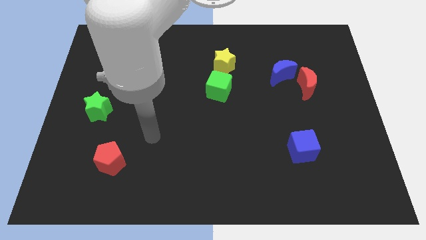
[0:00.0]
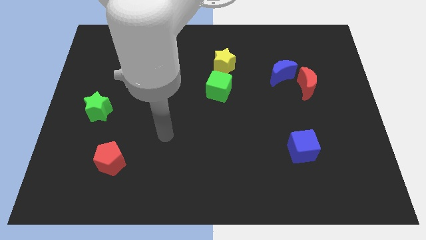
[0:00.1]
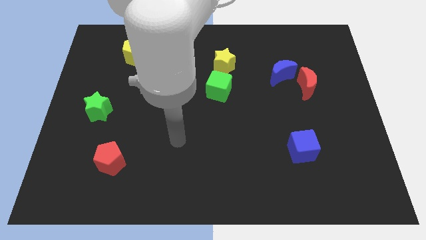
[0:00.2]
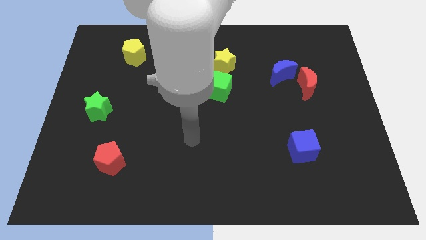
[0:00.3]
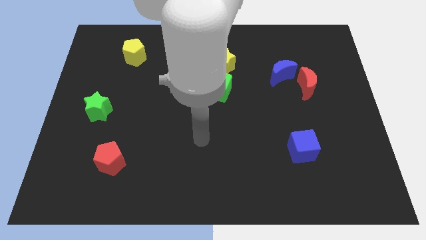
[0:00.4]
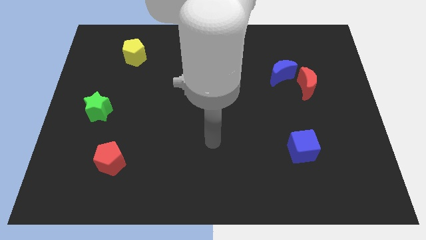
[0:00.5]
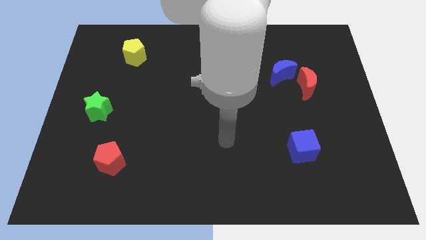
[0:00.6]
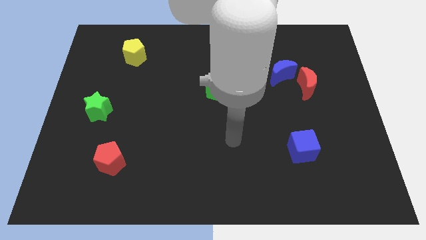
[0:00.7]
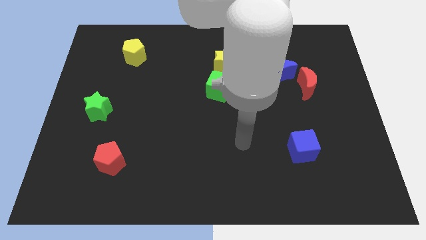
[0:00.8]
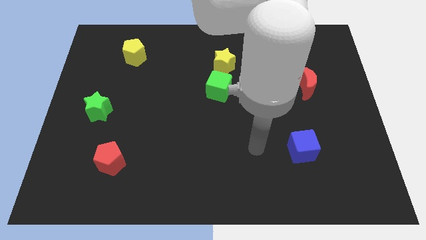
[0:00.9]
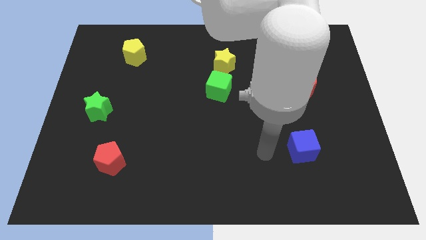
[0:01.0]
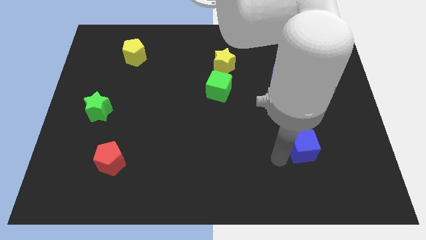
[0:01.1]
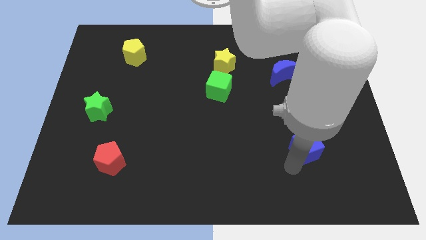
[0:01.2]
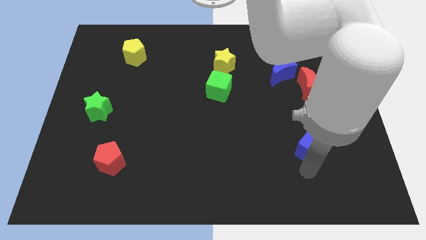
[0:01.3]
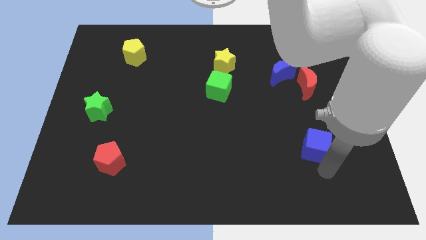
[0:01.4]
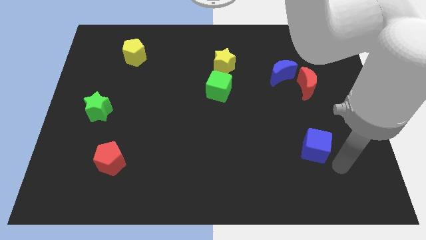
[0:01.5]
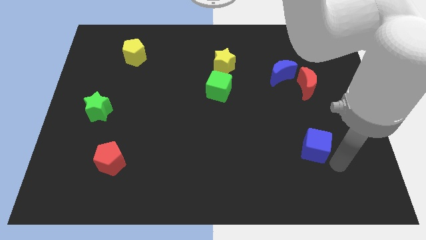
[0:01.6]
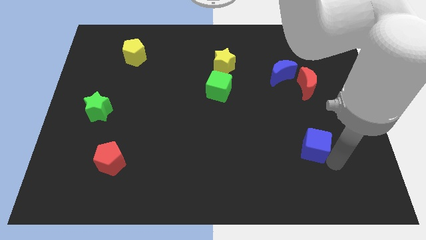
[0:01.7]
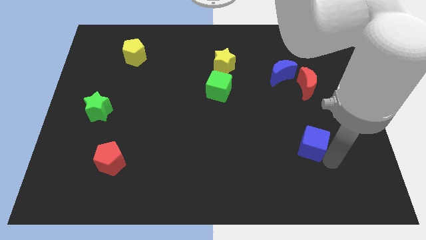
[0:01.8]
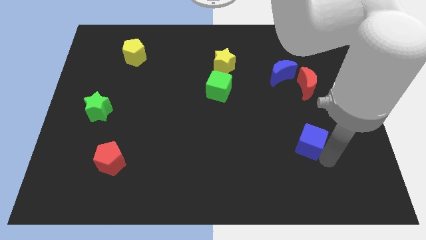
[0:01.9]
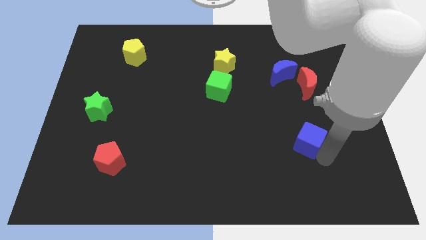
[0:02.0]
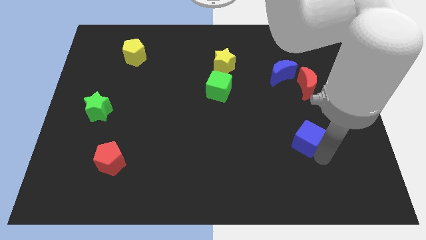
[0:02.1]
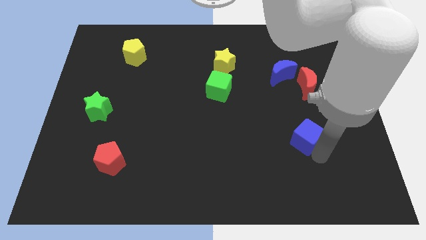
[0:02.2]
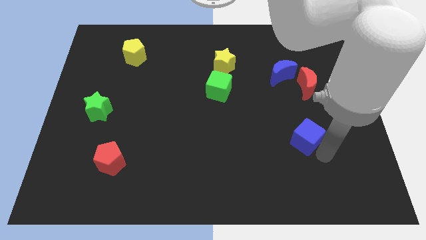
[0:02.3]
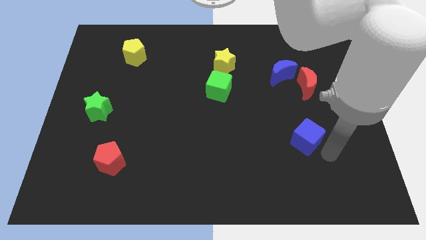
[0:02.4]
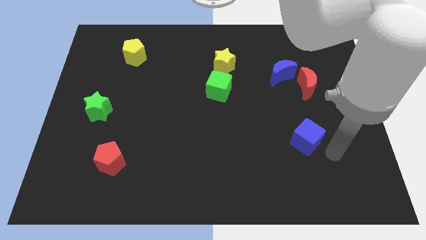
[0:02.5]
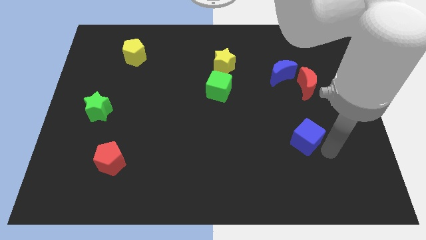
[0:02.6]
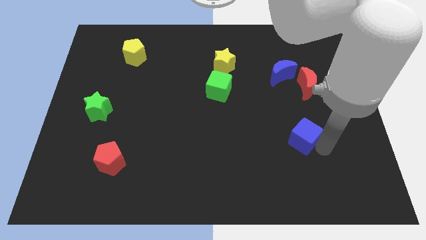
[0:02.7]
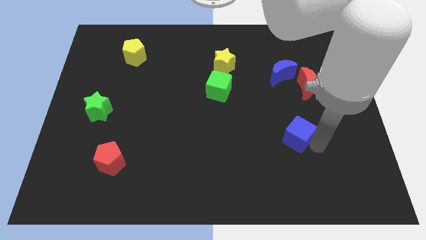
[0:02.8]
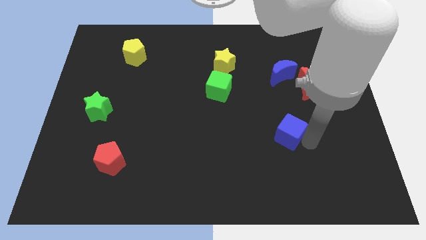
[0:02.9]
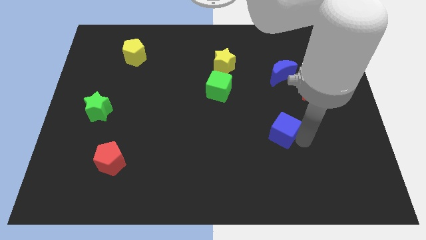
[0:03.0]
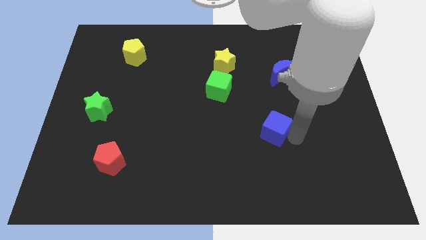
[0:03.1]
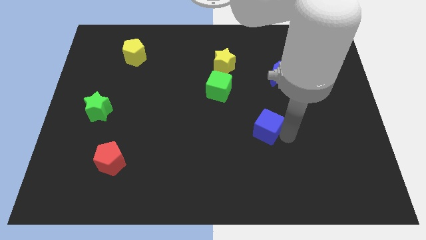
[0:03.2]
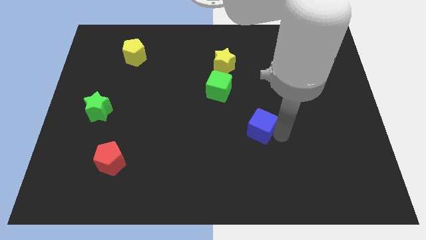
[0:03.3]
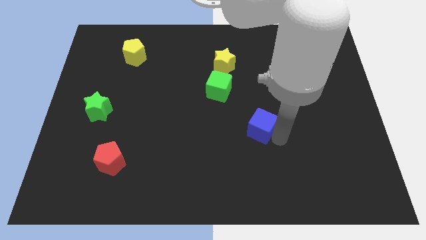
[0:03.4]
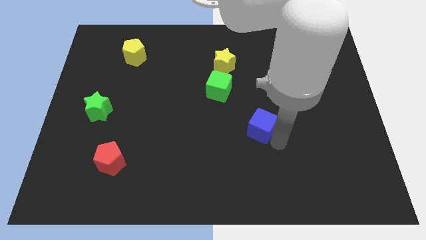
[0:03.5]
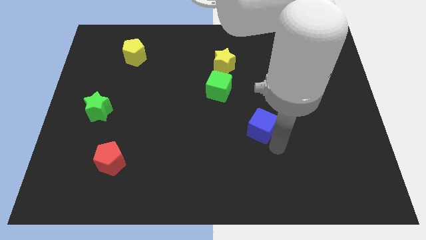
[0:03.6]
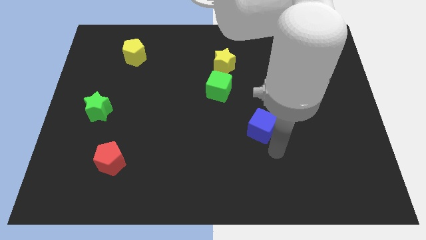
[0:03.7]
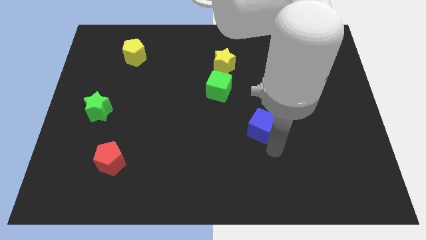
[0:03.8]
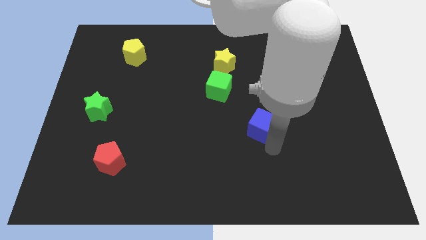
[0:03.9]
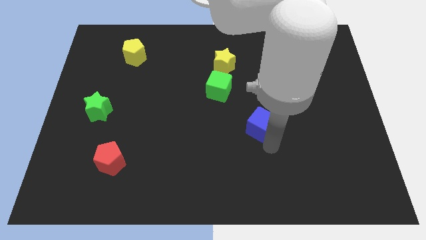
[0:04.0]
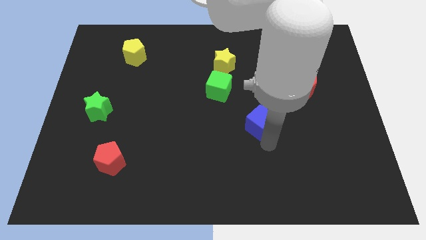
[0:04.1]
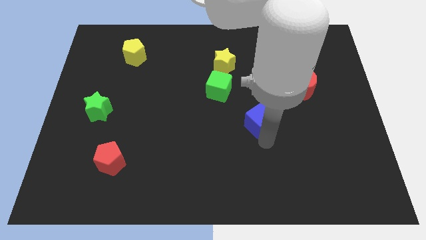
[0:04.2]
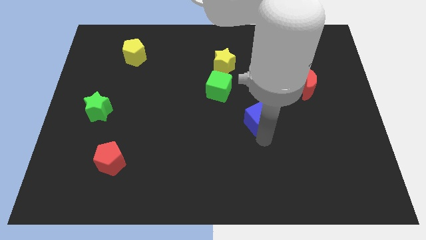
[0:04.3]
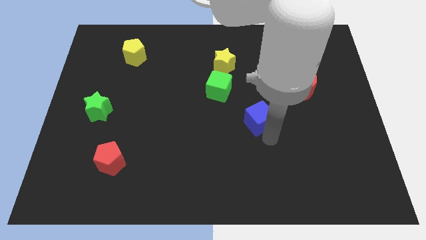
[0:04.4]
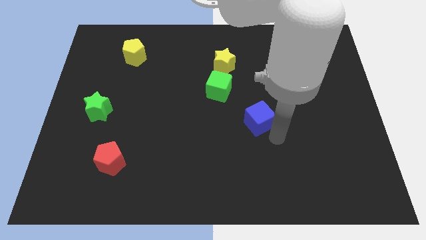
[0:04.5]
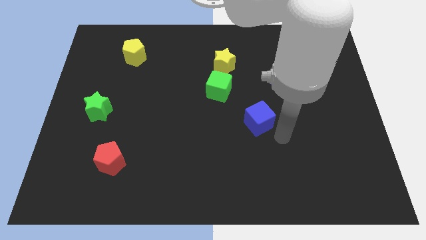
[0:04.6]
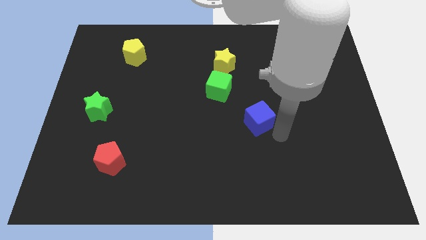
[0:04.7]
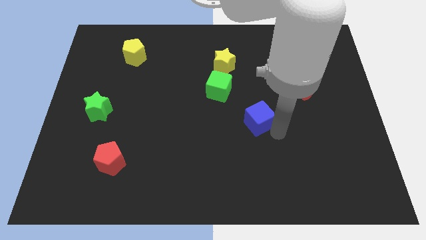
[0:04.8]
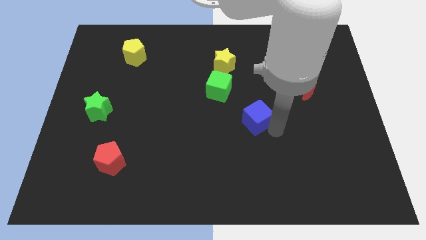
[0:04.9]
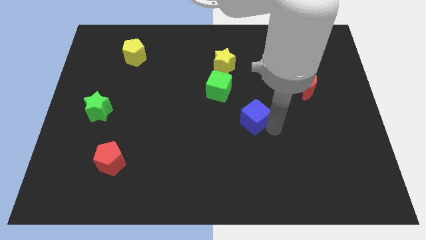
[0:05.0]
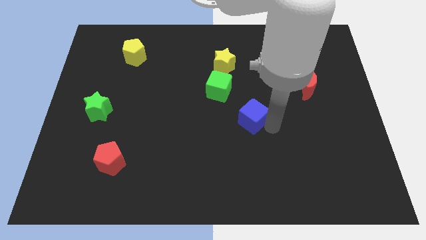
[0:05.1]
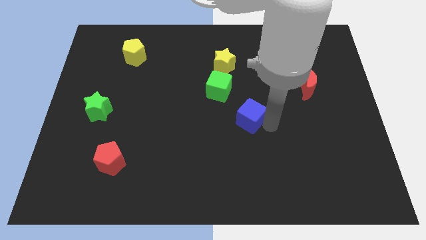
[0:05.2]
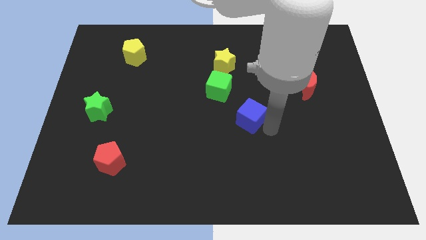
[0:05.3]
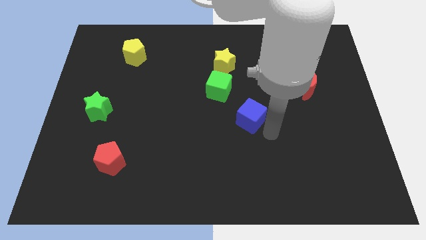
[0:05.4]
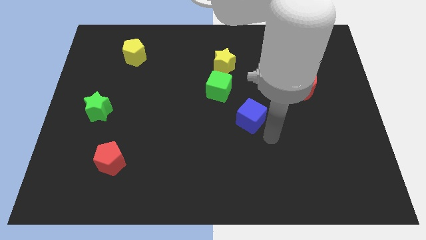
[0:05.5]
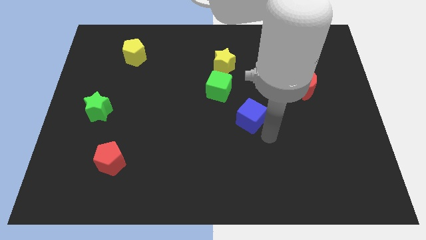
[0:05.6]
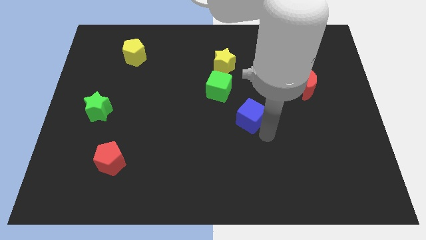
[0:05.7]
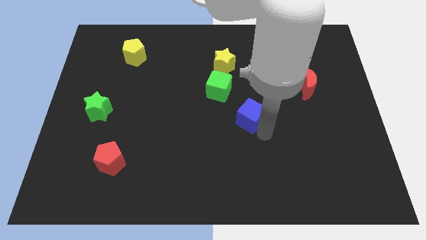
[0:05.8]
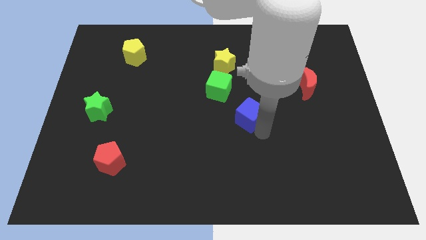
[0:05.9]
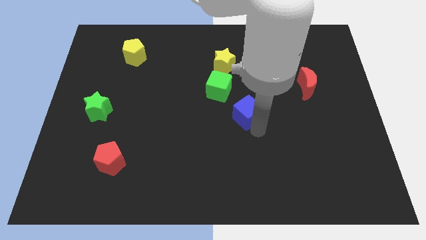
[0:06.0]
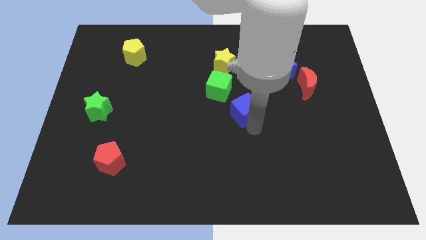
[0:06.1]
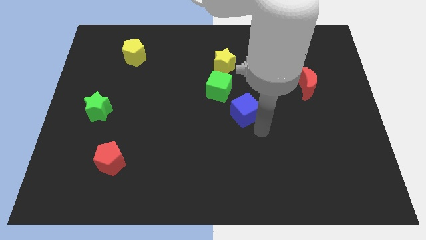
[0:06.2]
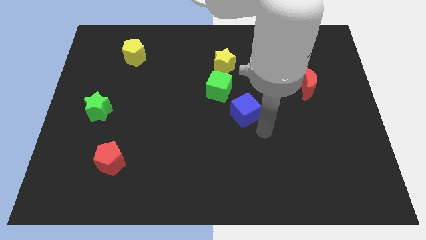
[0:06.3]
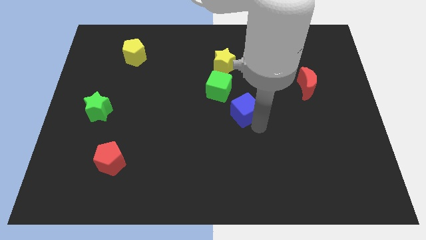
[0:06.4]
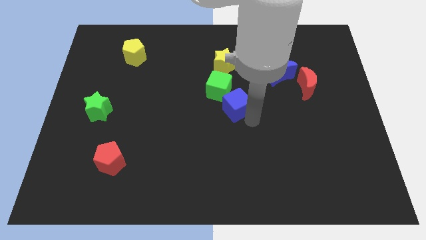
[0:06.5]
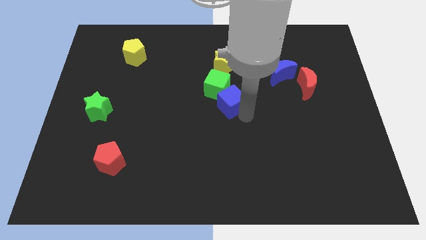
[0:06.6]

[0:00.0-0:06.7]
slide the blue cube next to the green cube
